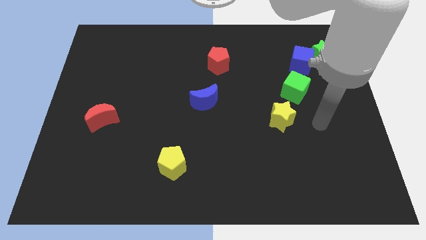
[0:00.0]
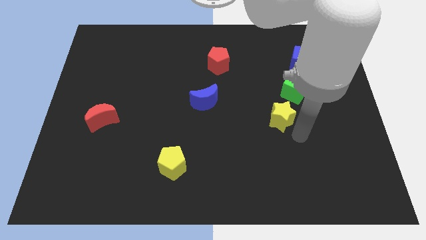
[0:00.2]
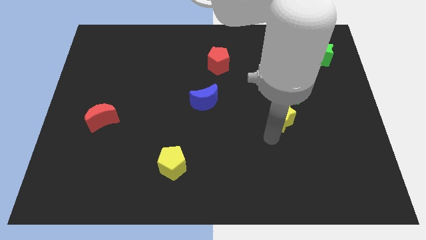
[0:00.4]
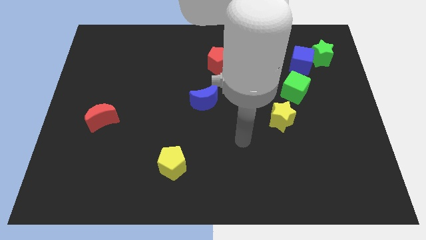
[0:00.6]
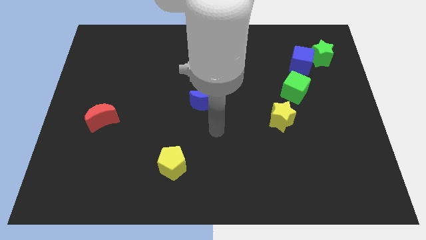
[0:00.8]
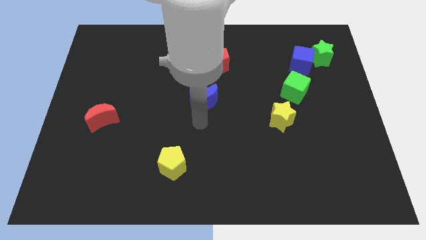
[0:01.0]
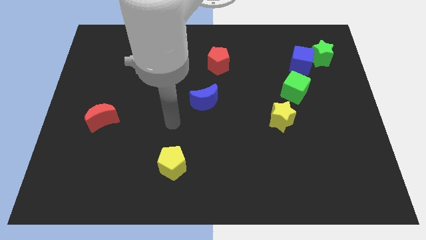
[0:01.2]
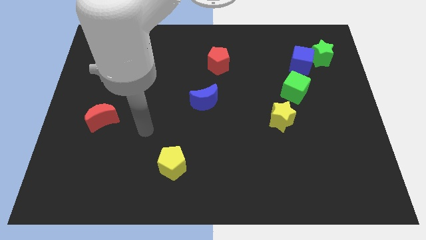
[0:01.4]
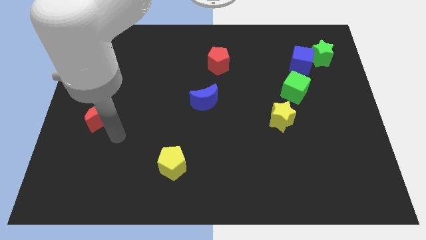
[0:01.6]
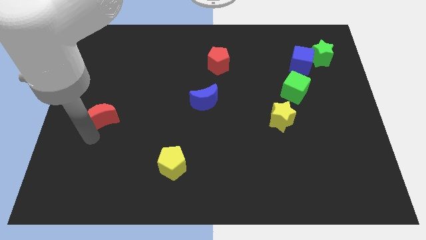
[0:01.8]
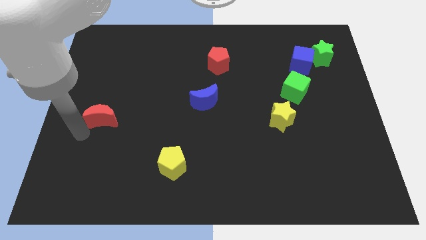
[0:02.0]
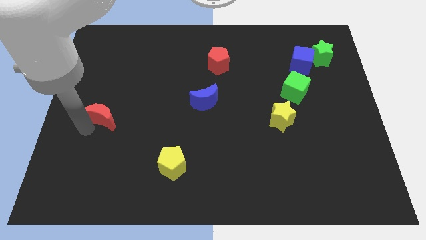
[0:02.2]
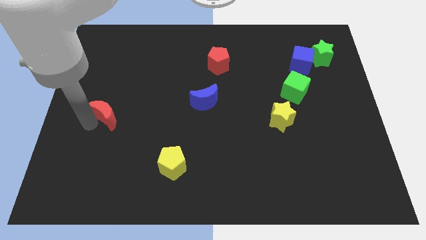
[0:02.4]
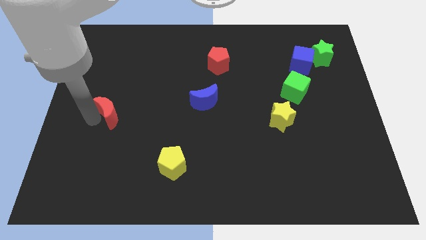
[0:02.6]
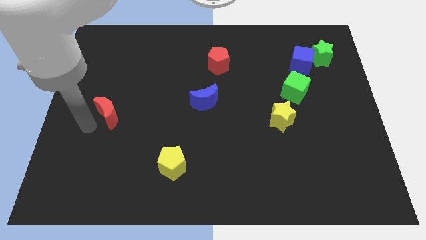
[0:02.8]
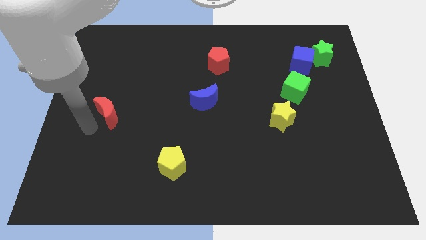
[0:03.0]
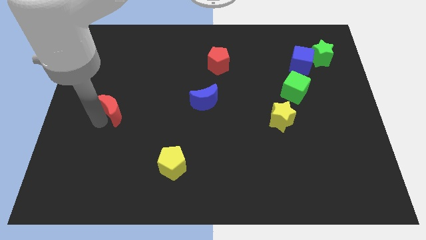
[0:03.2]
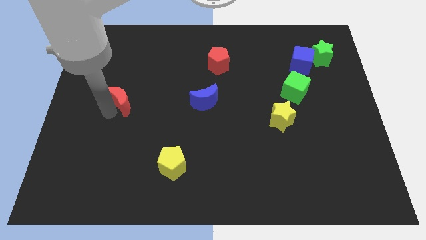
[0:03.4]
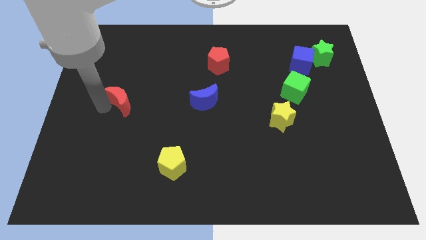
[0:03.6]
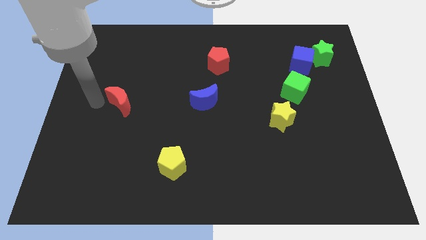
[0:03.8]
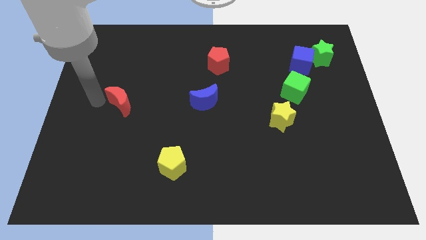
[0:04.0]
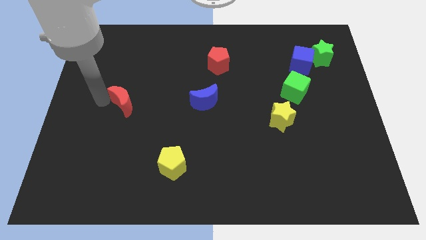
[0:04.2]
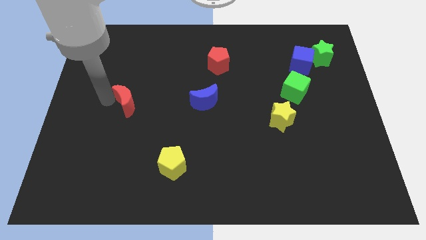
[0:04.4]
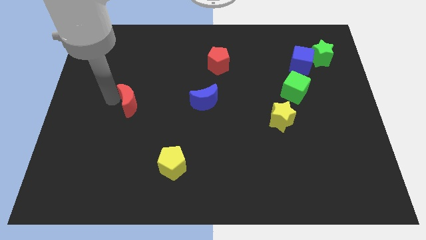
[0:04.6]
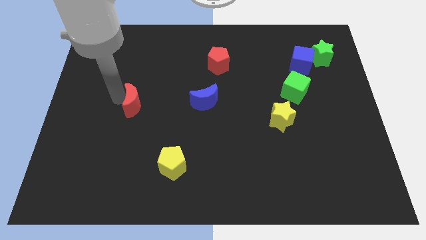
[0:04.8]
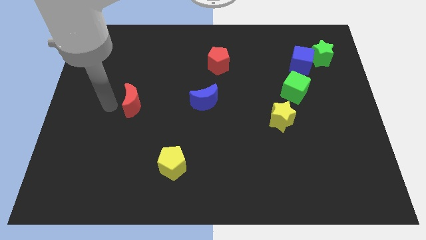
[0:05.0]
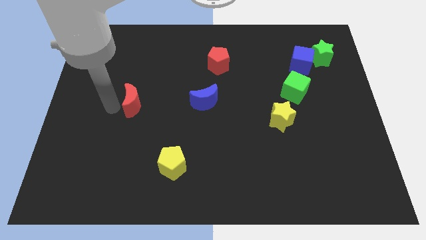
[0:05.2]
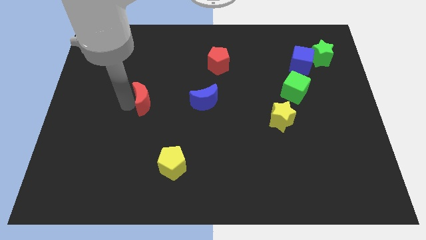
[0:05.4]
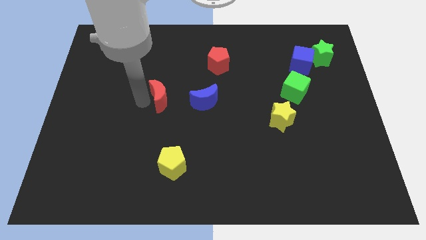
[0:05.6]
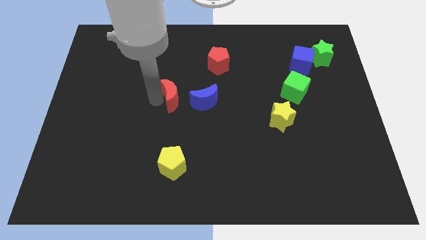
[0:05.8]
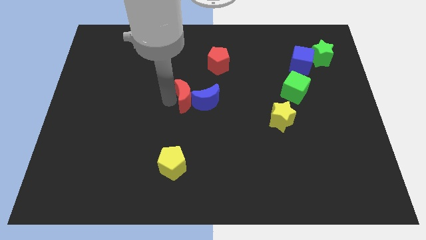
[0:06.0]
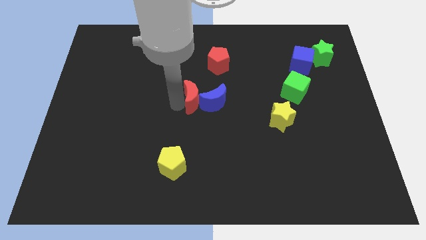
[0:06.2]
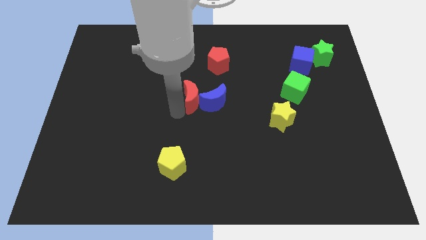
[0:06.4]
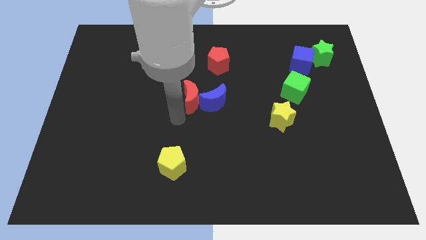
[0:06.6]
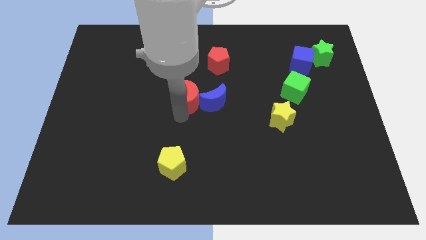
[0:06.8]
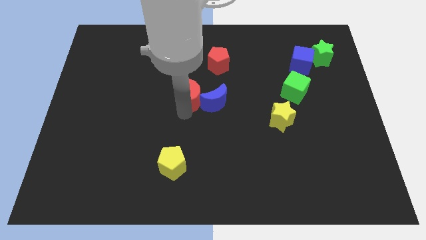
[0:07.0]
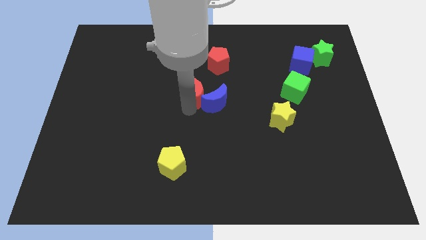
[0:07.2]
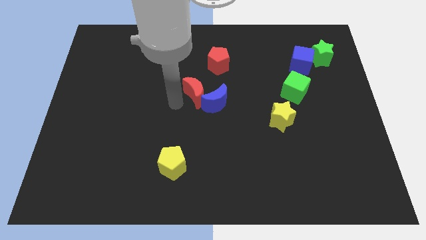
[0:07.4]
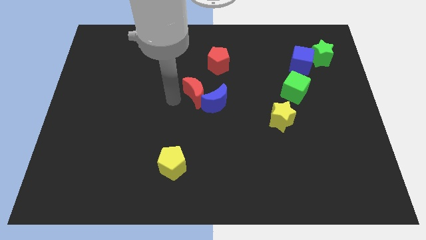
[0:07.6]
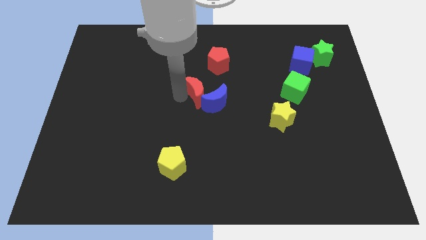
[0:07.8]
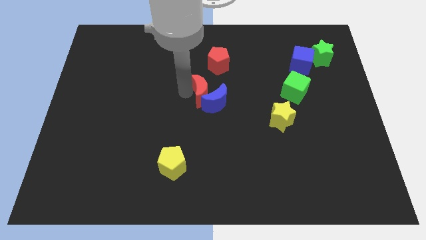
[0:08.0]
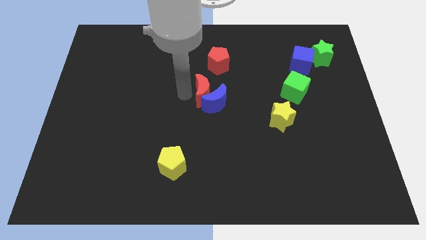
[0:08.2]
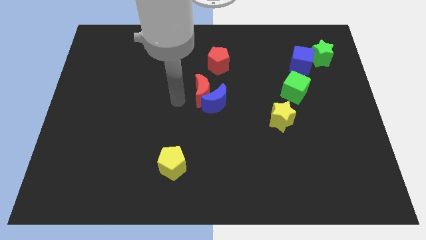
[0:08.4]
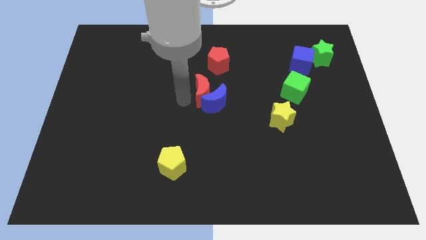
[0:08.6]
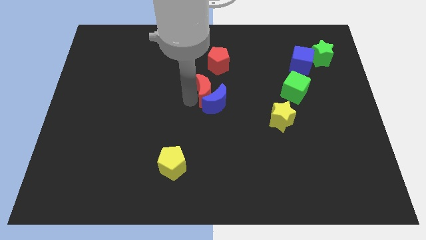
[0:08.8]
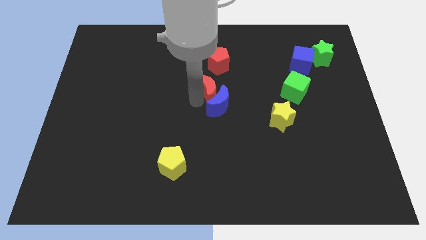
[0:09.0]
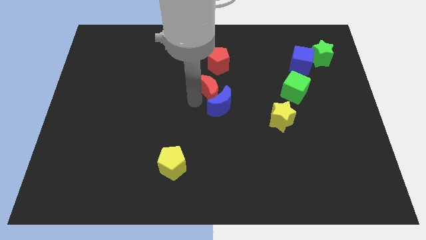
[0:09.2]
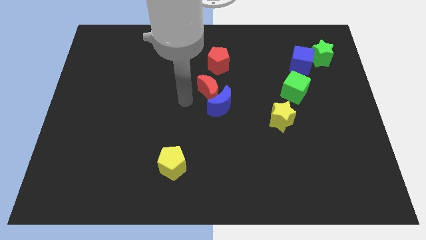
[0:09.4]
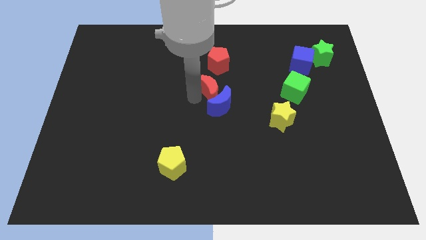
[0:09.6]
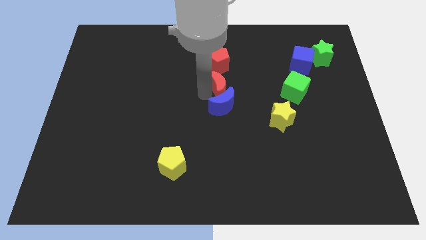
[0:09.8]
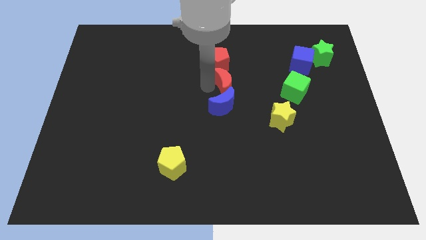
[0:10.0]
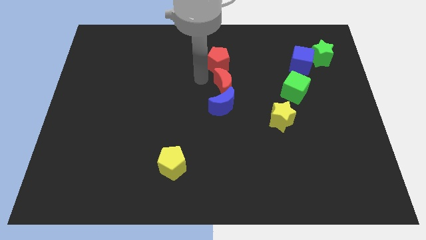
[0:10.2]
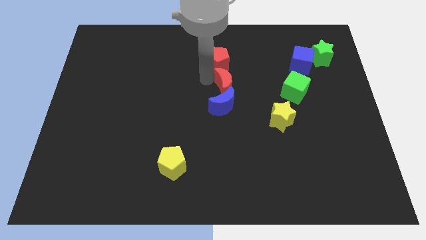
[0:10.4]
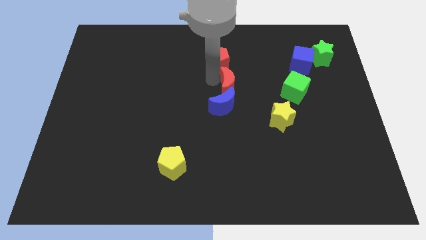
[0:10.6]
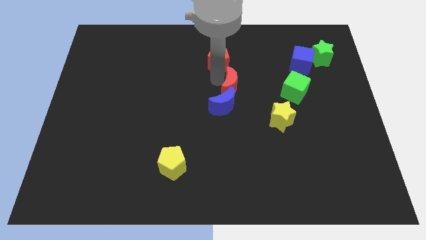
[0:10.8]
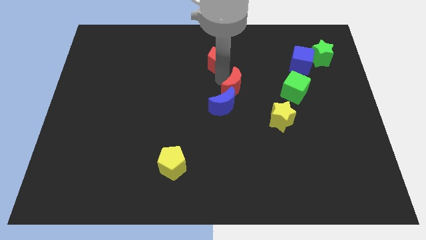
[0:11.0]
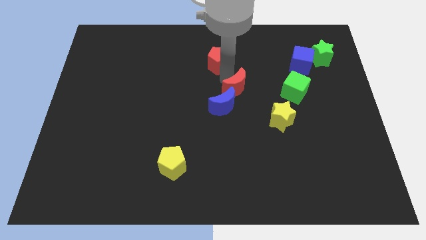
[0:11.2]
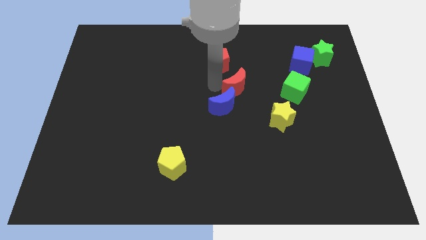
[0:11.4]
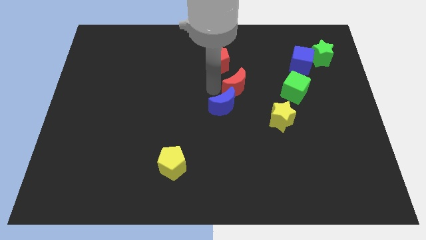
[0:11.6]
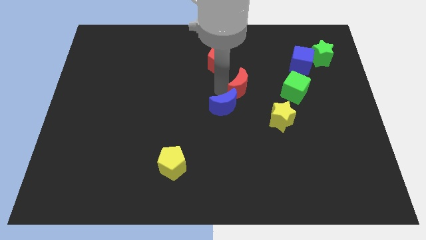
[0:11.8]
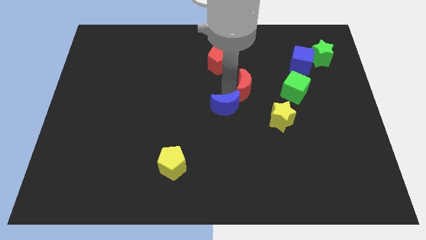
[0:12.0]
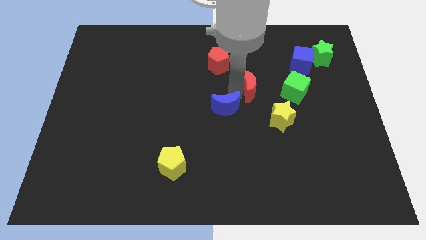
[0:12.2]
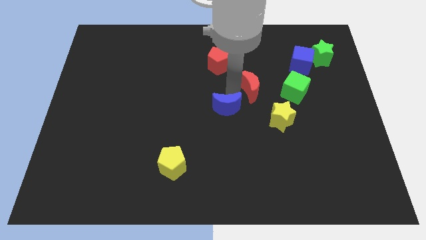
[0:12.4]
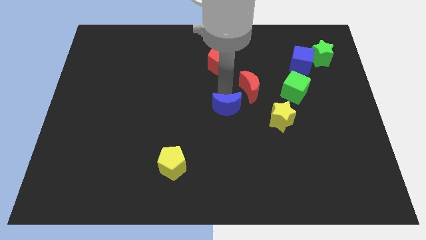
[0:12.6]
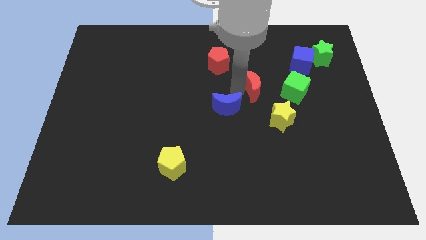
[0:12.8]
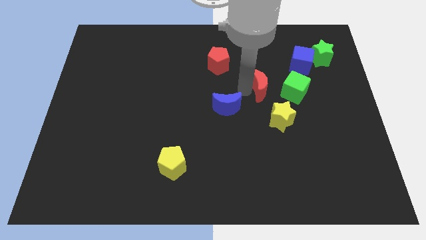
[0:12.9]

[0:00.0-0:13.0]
put the red moon to the top of the yellow star
